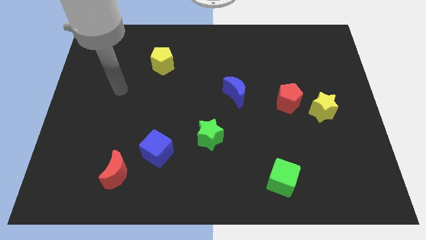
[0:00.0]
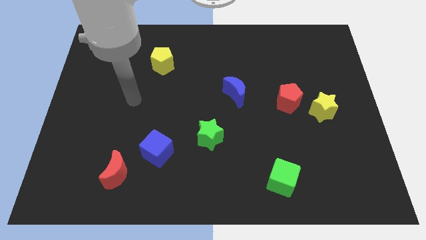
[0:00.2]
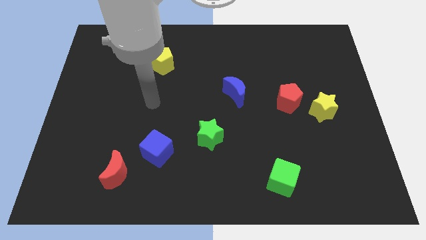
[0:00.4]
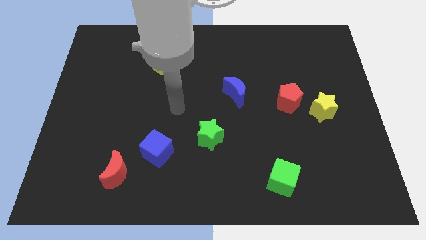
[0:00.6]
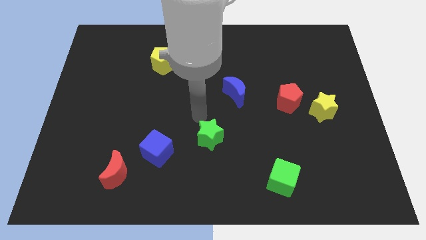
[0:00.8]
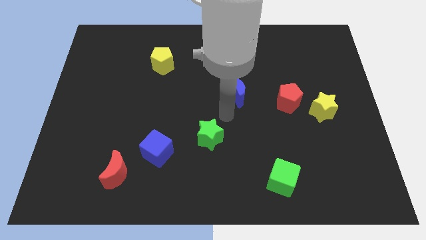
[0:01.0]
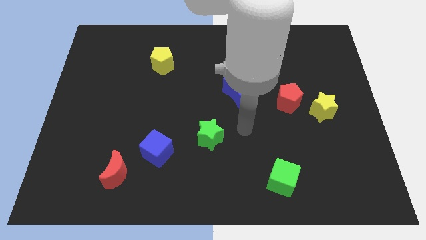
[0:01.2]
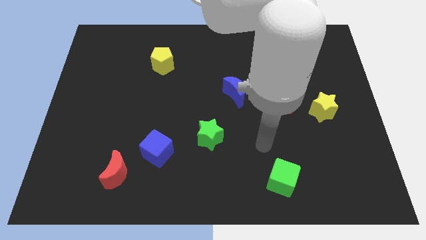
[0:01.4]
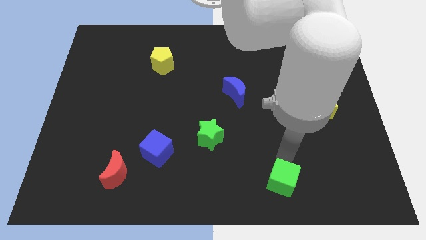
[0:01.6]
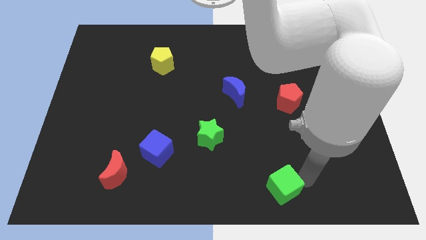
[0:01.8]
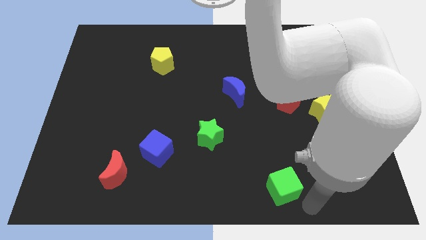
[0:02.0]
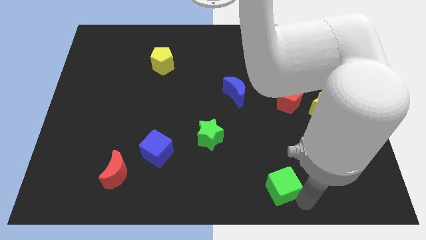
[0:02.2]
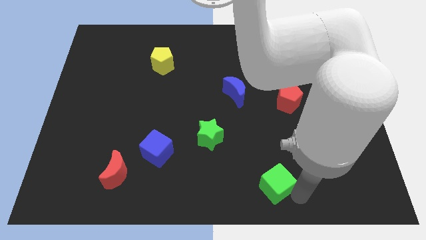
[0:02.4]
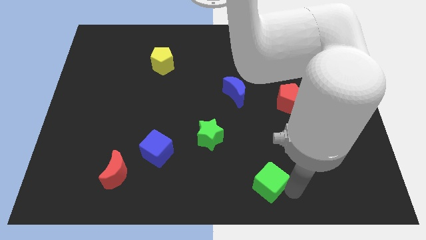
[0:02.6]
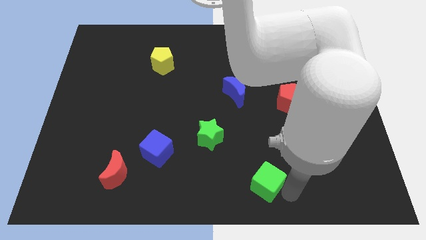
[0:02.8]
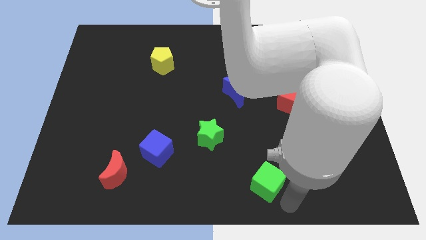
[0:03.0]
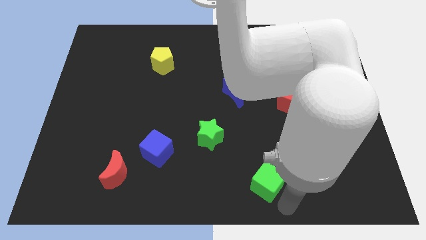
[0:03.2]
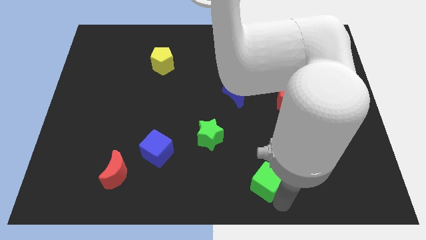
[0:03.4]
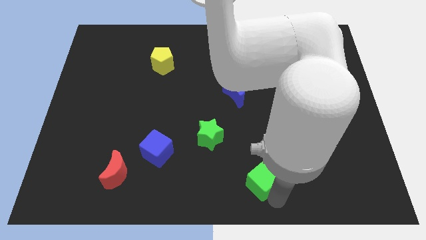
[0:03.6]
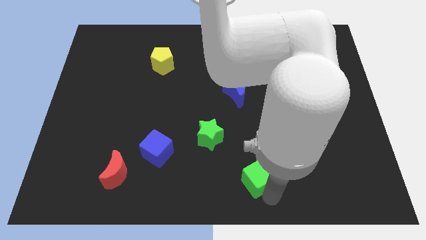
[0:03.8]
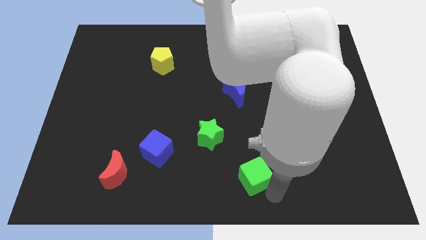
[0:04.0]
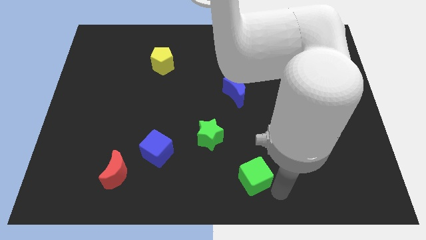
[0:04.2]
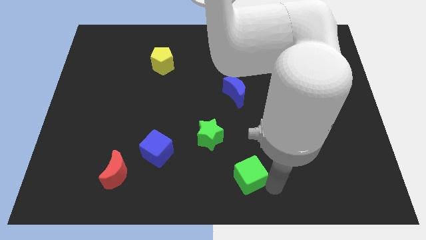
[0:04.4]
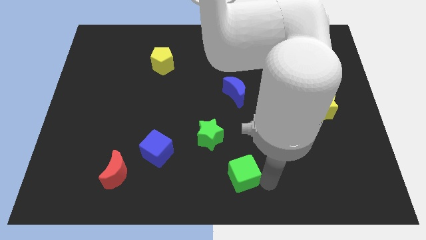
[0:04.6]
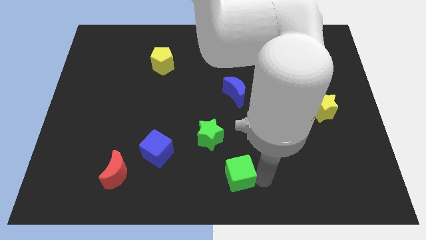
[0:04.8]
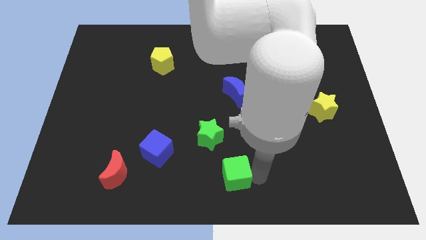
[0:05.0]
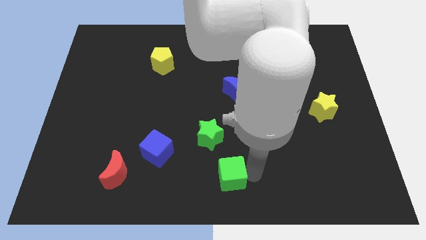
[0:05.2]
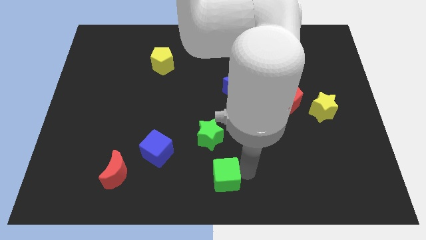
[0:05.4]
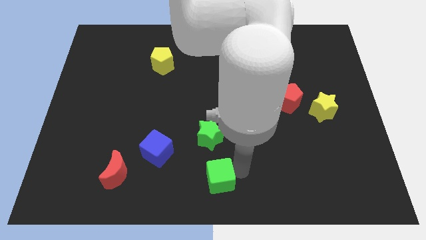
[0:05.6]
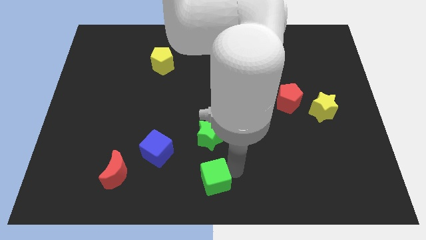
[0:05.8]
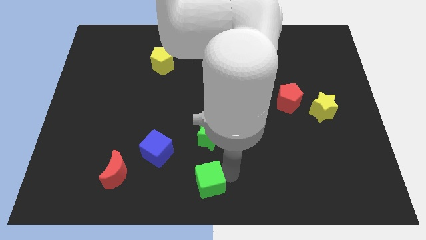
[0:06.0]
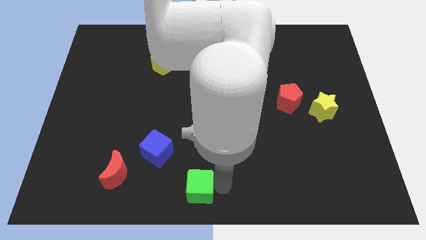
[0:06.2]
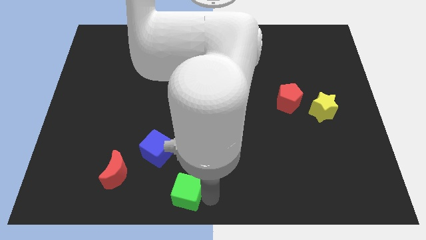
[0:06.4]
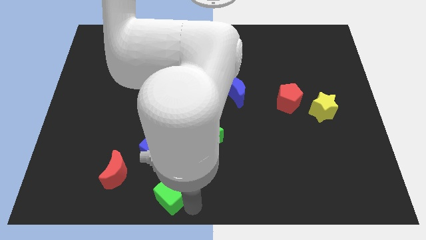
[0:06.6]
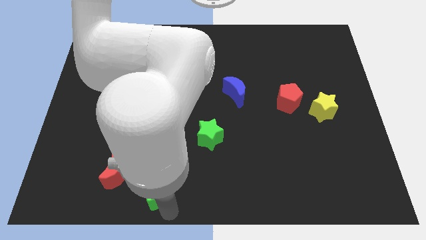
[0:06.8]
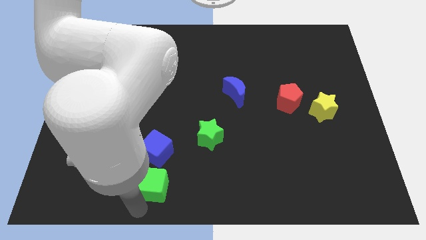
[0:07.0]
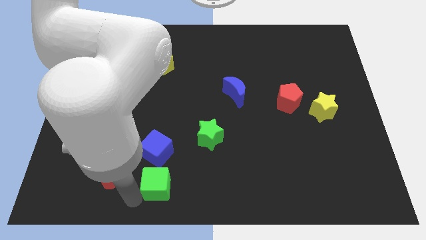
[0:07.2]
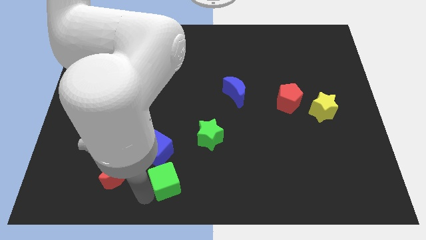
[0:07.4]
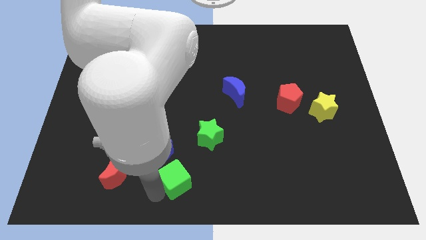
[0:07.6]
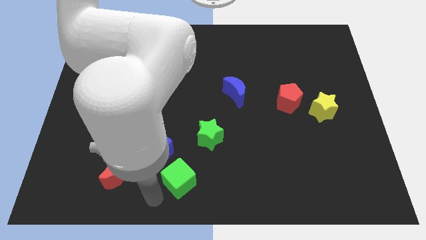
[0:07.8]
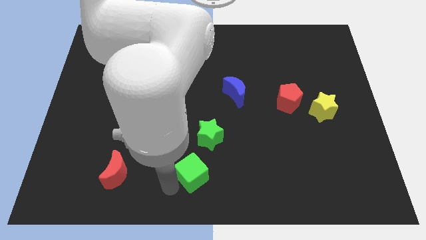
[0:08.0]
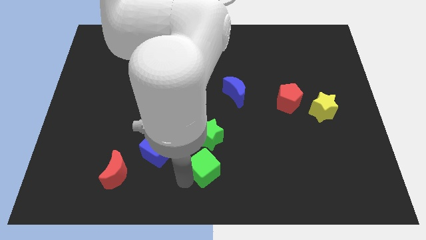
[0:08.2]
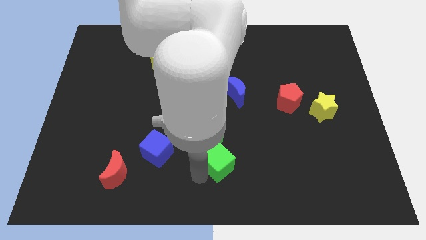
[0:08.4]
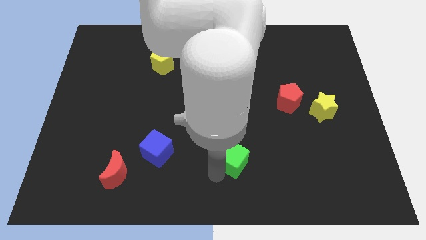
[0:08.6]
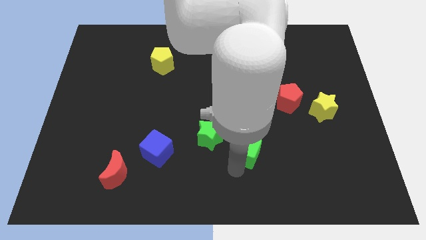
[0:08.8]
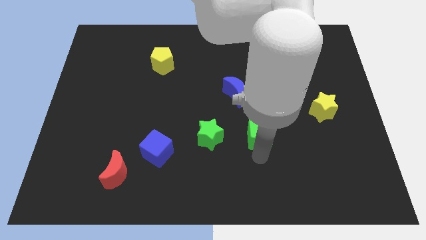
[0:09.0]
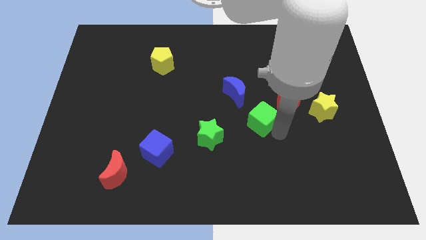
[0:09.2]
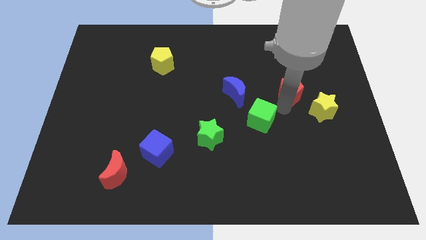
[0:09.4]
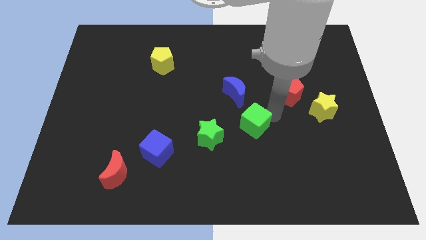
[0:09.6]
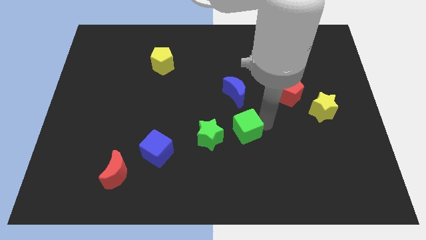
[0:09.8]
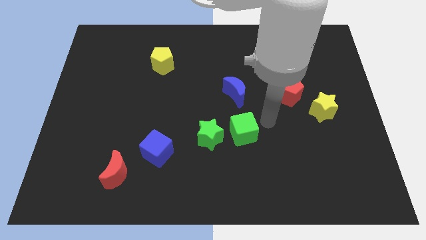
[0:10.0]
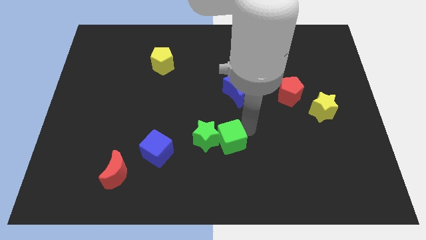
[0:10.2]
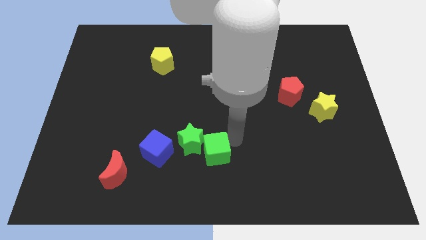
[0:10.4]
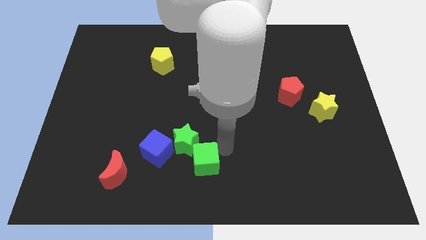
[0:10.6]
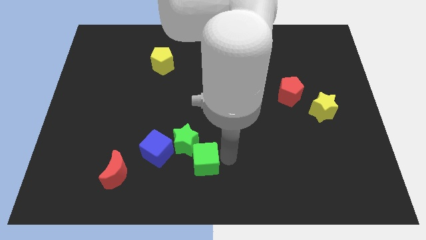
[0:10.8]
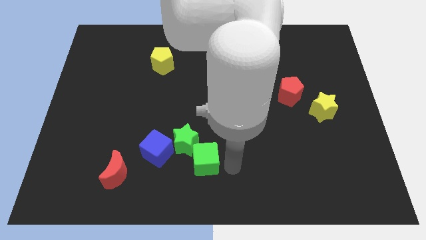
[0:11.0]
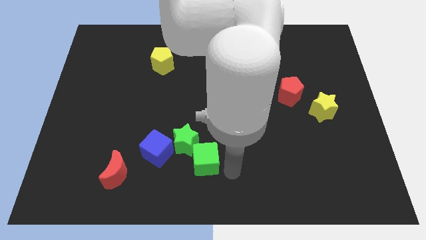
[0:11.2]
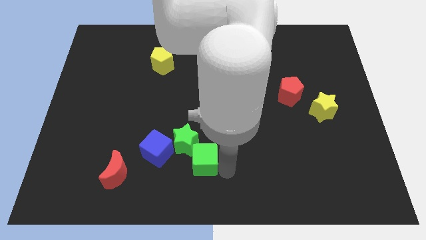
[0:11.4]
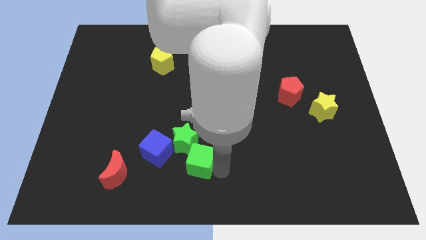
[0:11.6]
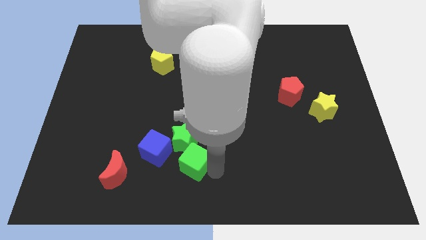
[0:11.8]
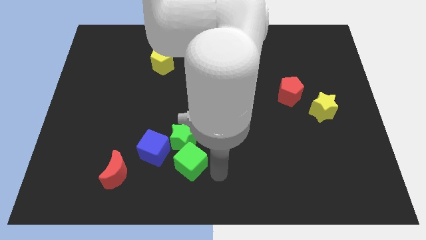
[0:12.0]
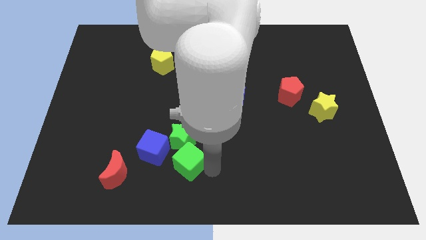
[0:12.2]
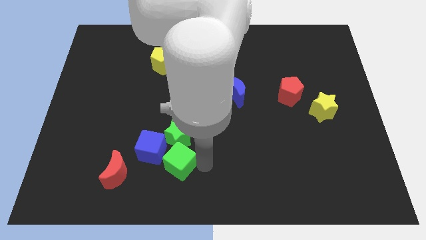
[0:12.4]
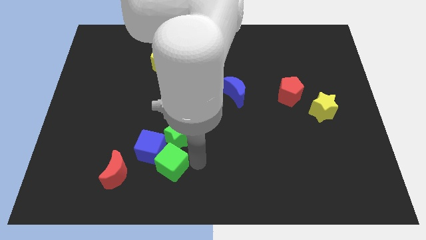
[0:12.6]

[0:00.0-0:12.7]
put the green cube to the blue cube
